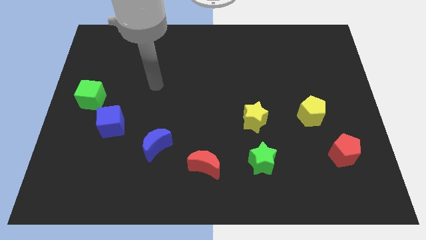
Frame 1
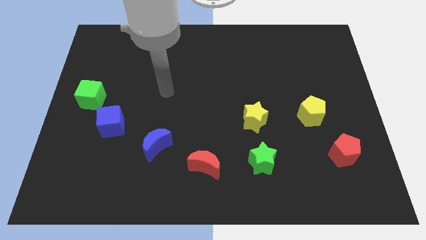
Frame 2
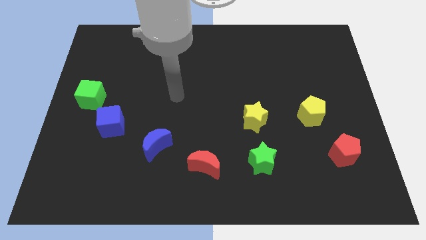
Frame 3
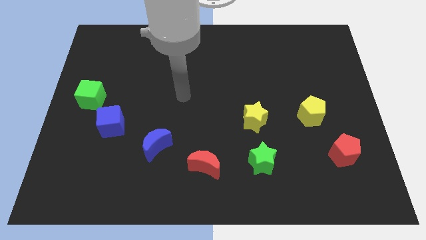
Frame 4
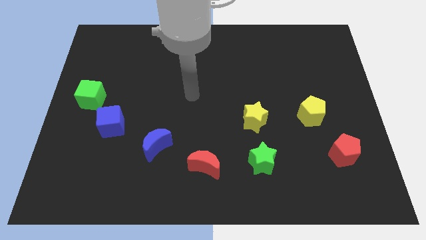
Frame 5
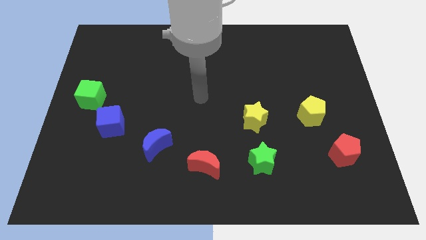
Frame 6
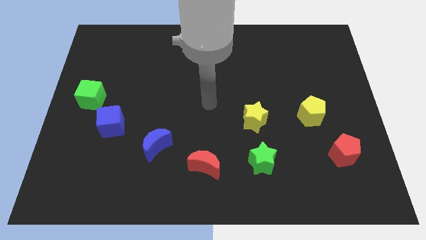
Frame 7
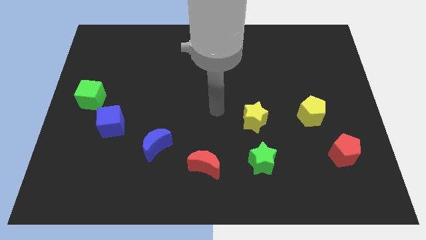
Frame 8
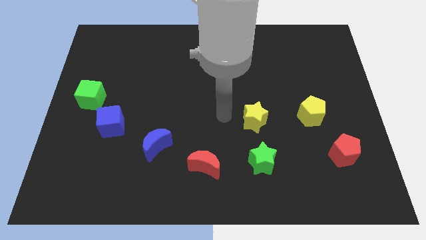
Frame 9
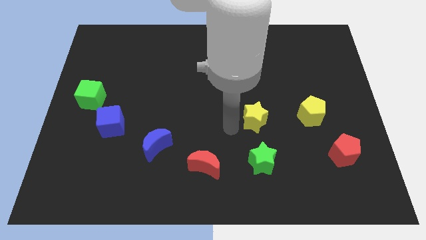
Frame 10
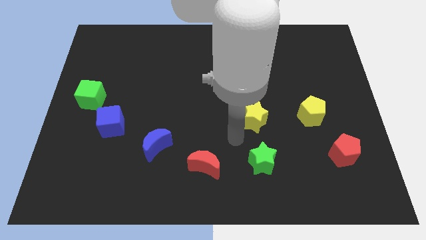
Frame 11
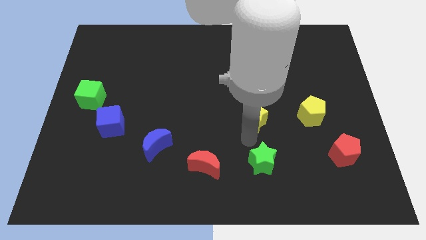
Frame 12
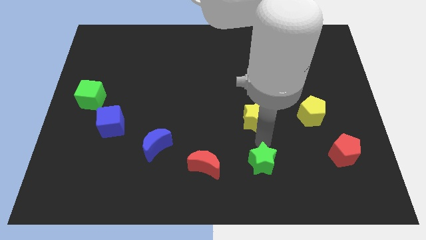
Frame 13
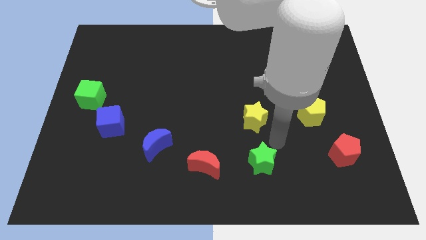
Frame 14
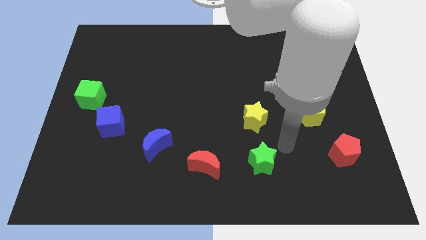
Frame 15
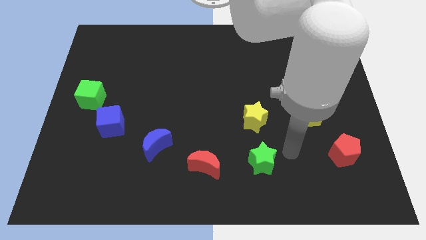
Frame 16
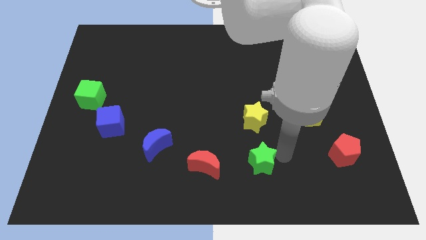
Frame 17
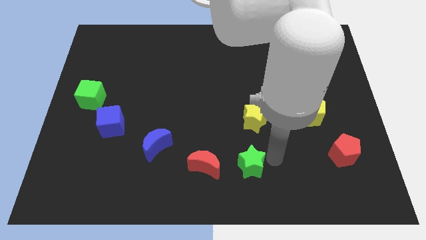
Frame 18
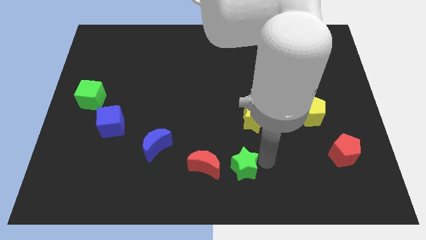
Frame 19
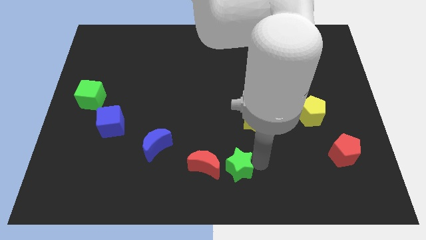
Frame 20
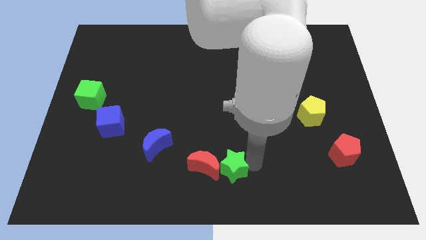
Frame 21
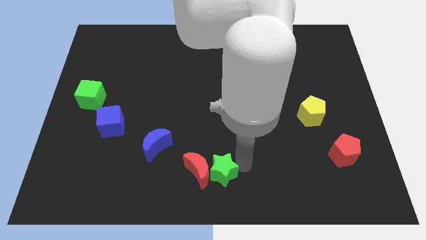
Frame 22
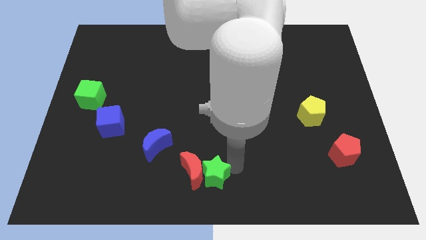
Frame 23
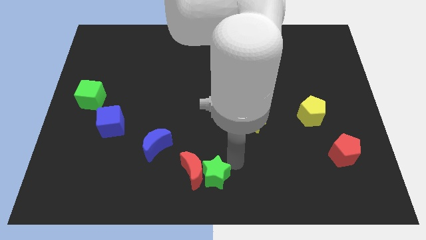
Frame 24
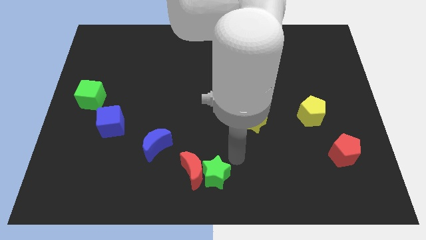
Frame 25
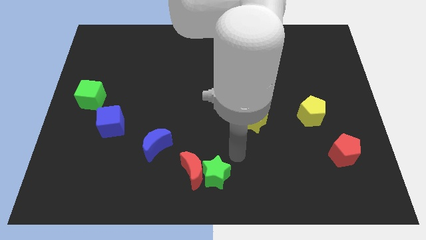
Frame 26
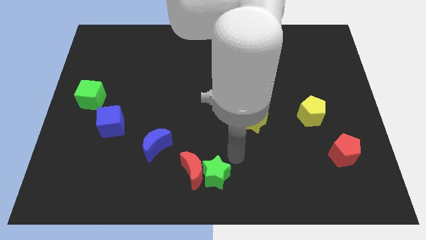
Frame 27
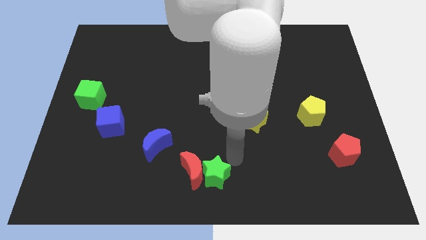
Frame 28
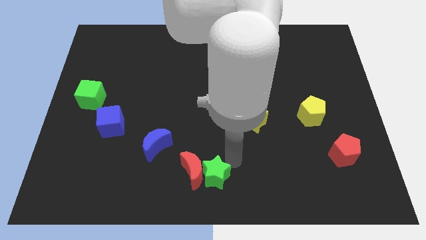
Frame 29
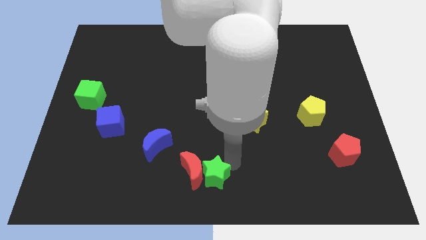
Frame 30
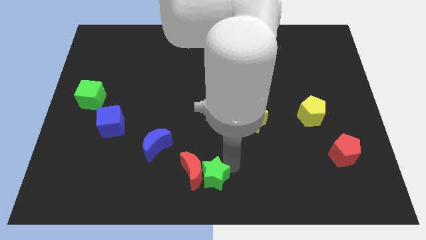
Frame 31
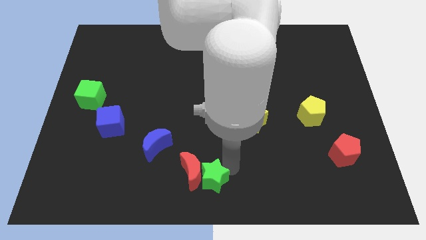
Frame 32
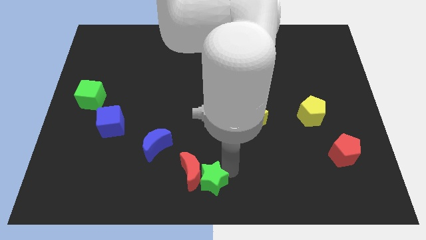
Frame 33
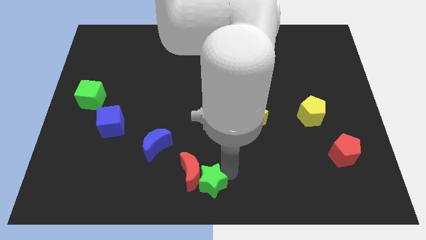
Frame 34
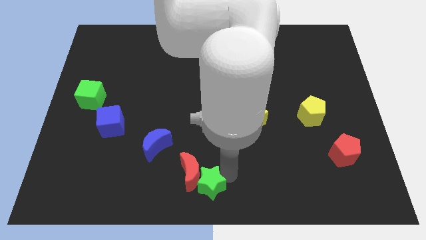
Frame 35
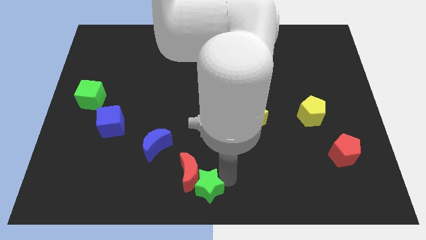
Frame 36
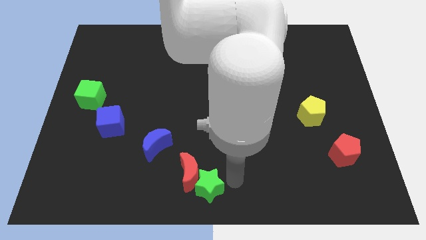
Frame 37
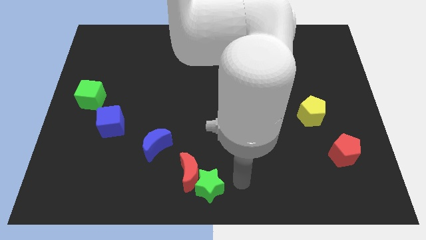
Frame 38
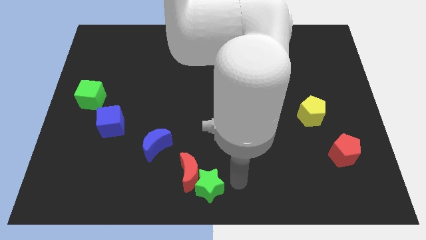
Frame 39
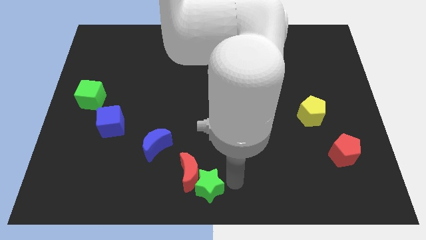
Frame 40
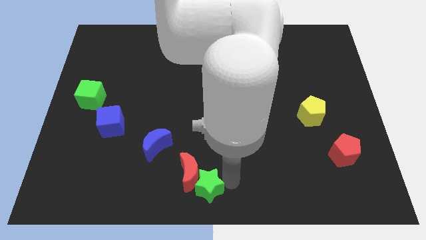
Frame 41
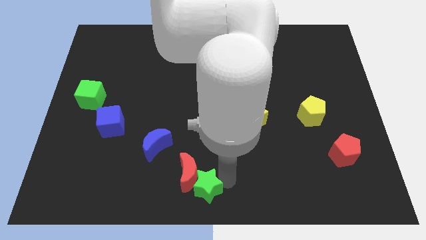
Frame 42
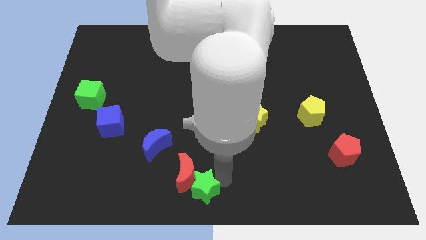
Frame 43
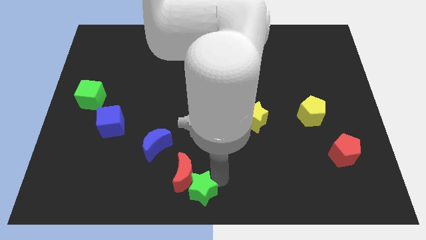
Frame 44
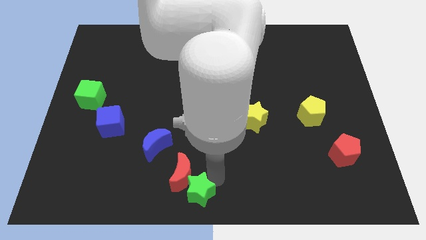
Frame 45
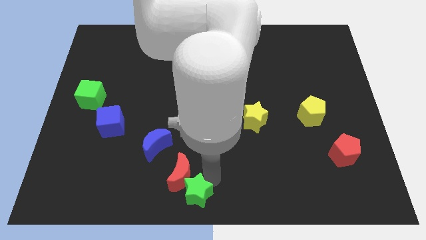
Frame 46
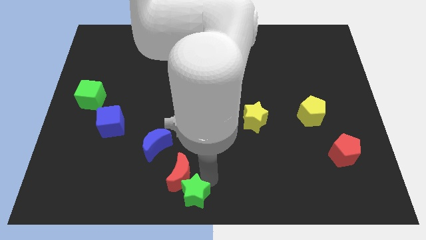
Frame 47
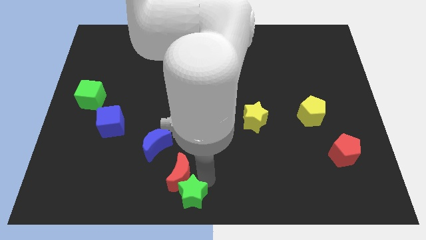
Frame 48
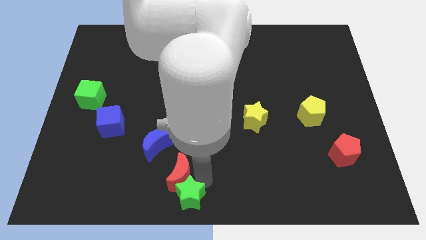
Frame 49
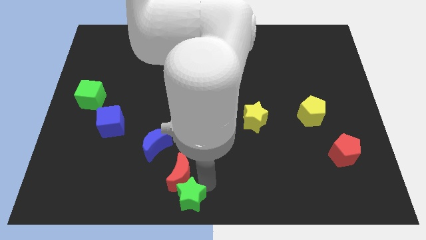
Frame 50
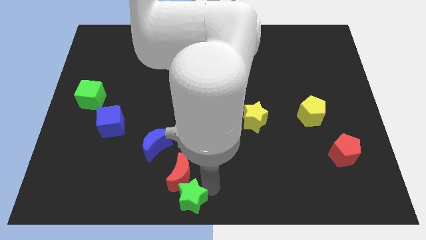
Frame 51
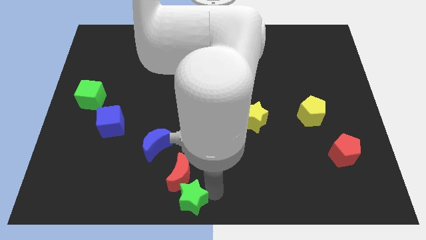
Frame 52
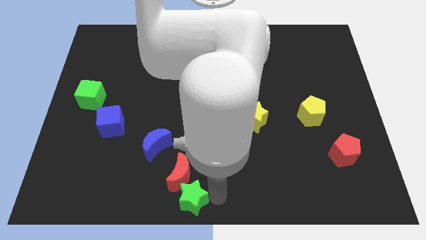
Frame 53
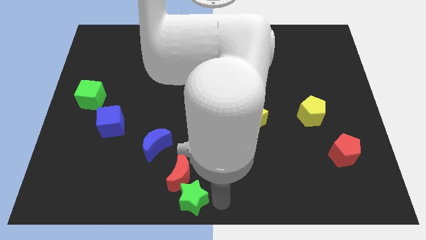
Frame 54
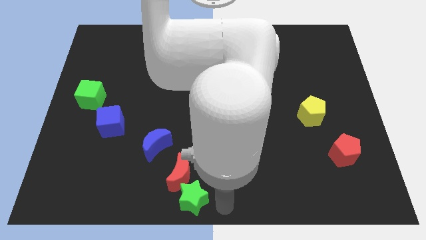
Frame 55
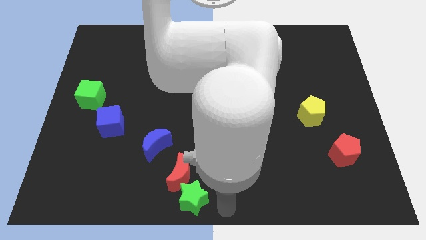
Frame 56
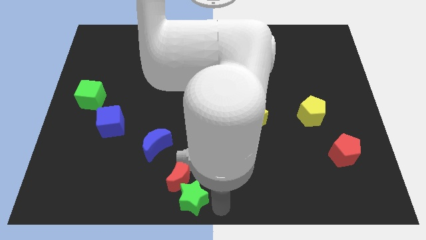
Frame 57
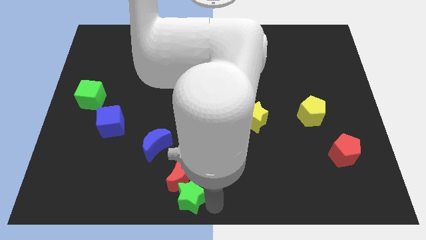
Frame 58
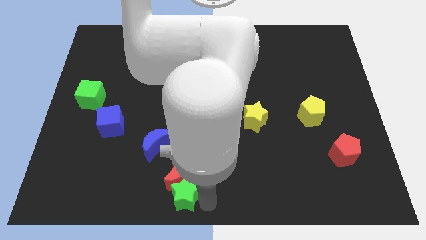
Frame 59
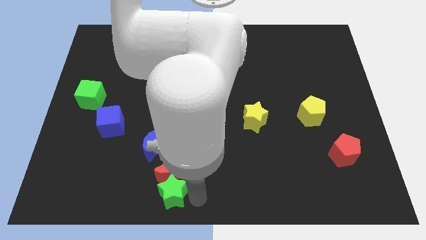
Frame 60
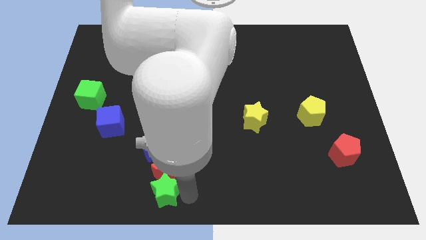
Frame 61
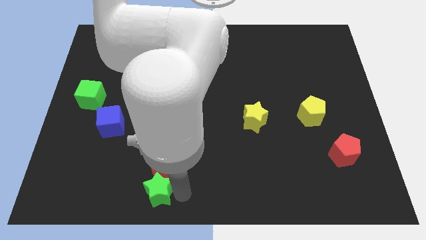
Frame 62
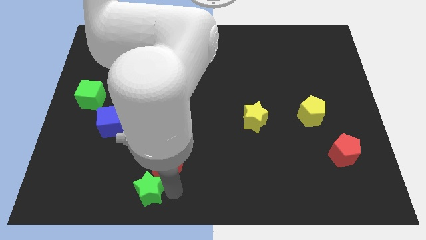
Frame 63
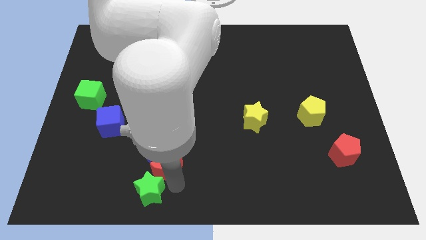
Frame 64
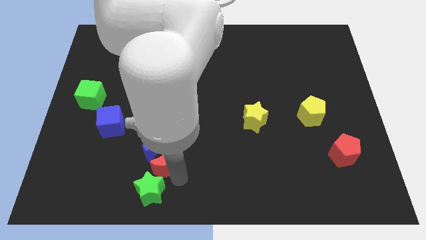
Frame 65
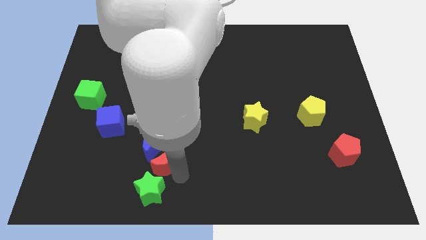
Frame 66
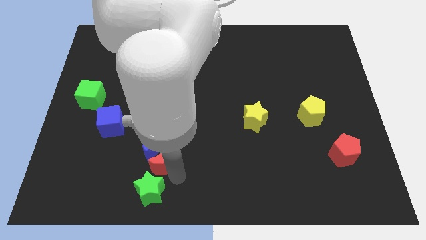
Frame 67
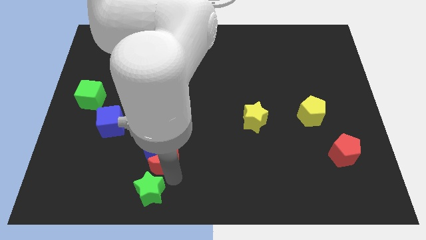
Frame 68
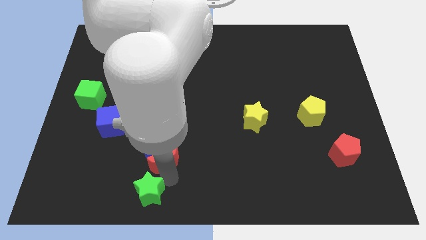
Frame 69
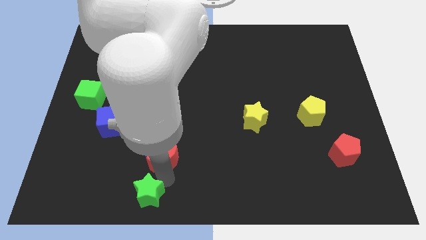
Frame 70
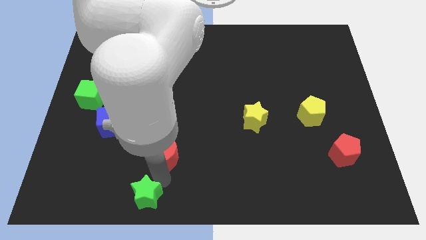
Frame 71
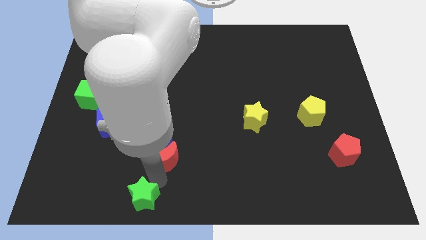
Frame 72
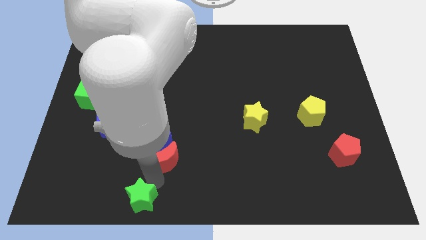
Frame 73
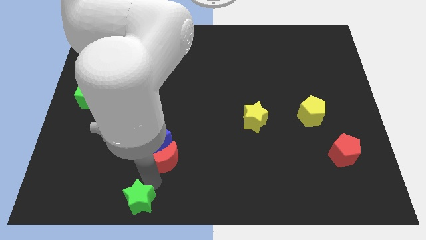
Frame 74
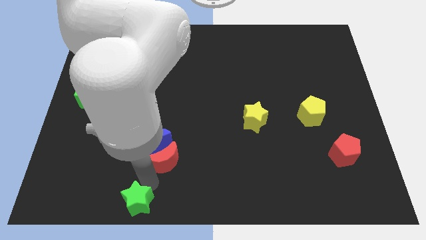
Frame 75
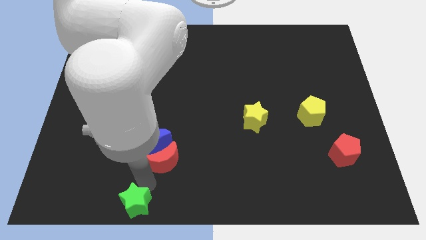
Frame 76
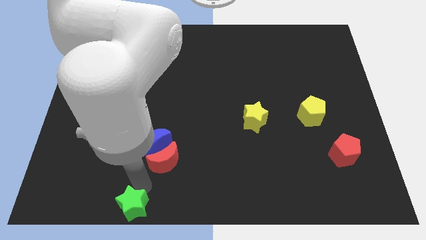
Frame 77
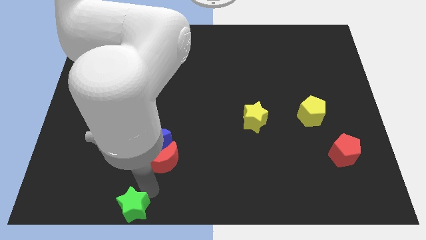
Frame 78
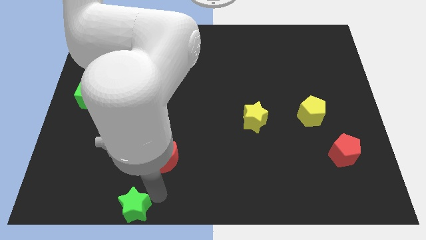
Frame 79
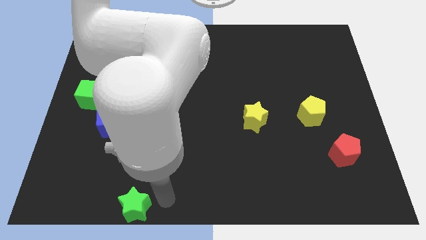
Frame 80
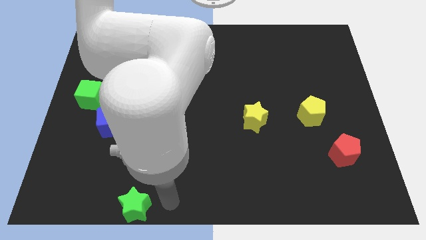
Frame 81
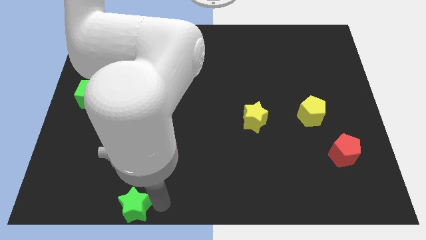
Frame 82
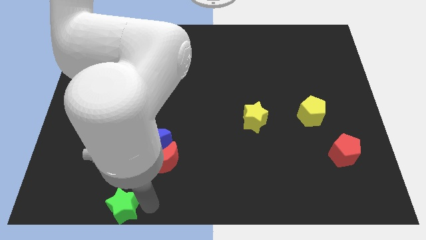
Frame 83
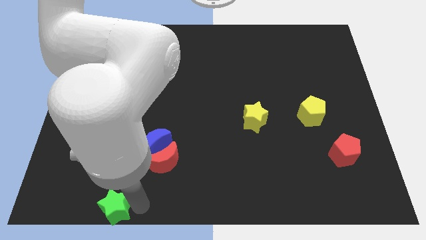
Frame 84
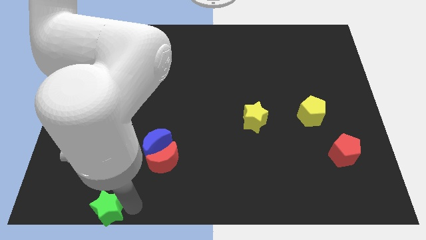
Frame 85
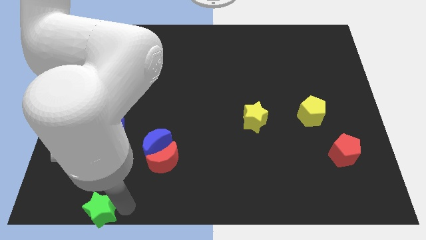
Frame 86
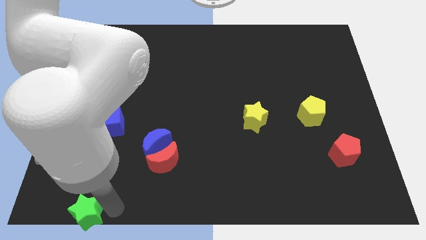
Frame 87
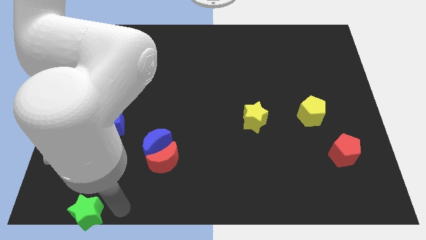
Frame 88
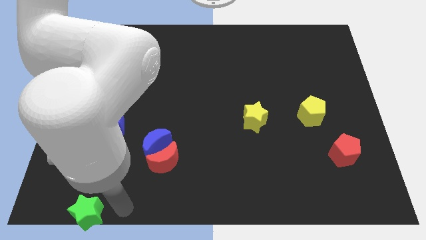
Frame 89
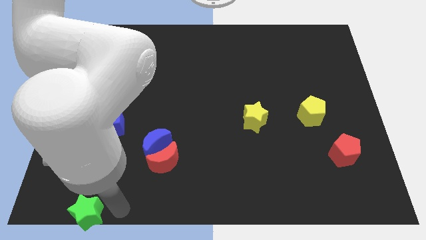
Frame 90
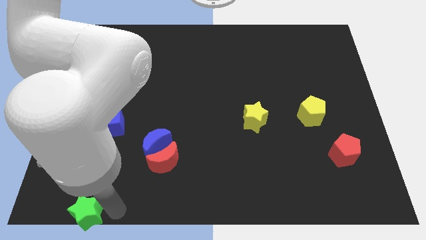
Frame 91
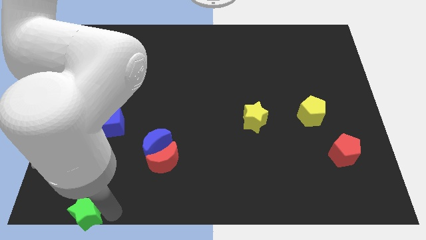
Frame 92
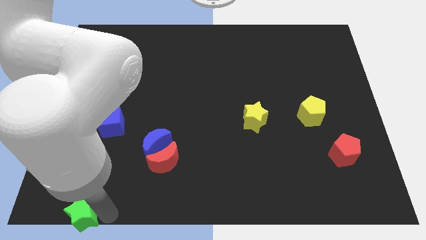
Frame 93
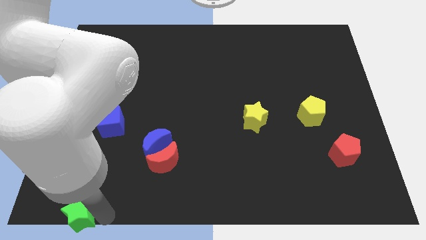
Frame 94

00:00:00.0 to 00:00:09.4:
move the green star to the bottom left of the board
